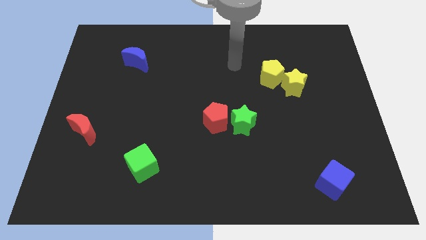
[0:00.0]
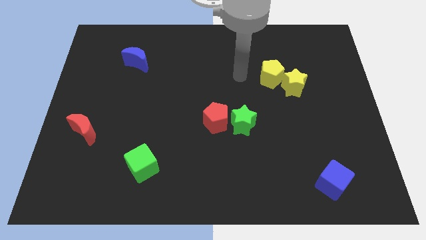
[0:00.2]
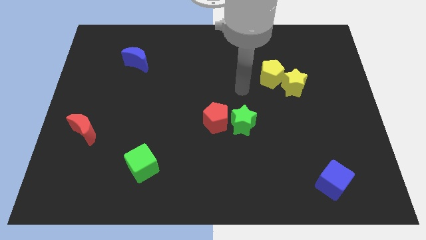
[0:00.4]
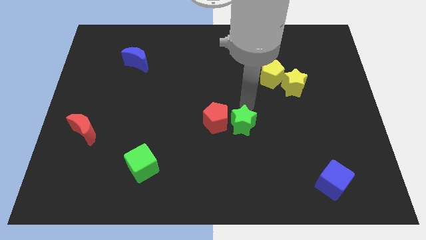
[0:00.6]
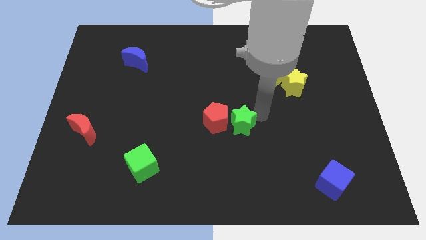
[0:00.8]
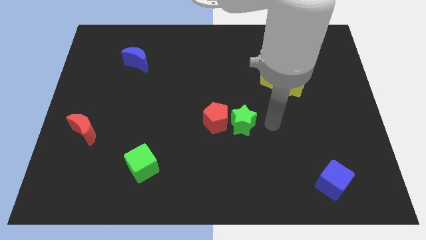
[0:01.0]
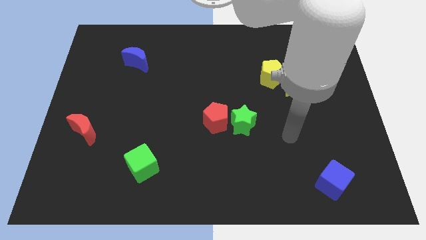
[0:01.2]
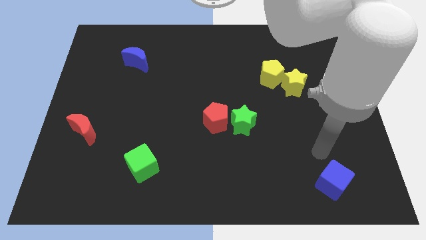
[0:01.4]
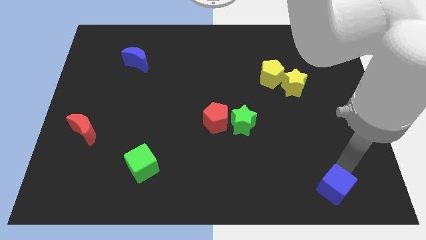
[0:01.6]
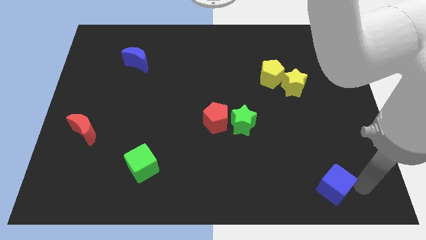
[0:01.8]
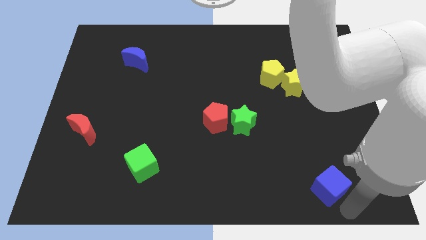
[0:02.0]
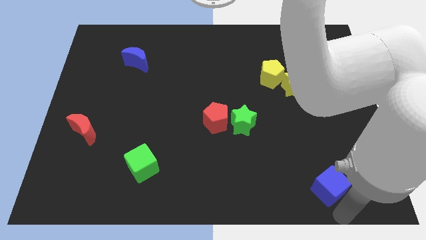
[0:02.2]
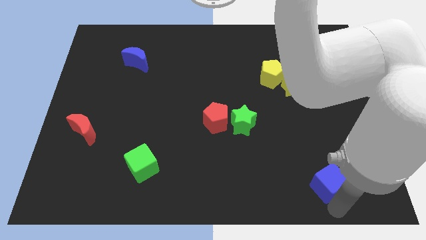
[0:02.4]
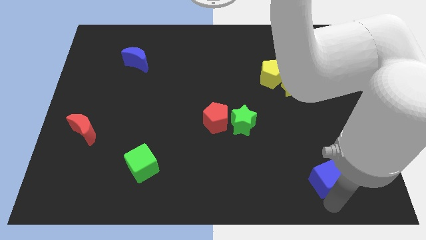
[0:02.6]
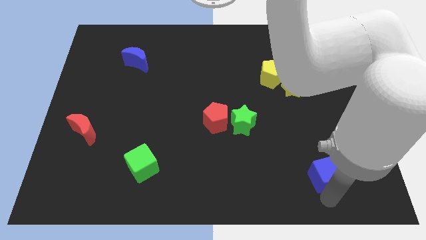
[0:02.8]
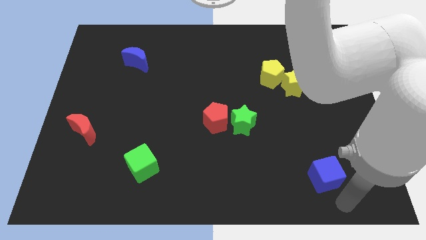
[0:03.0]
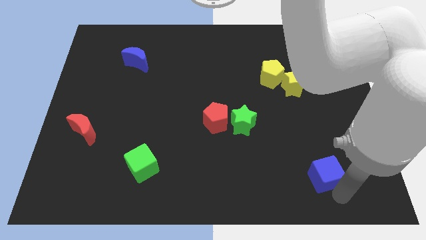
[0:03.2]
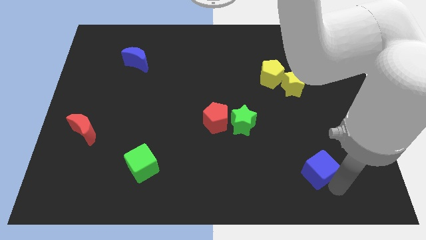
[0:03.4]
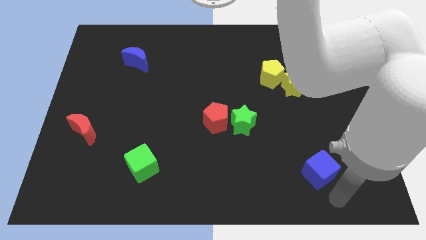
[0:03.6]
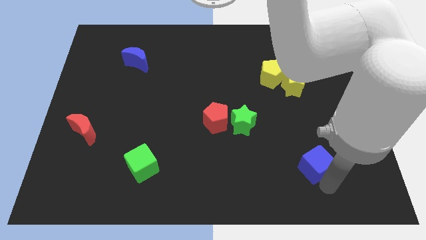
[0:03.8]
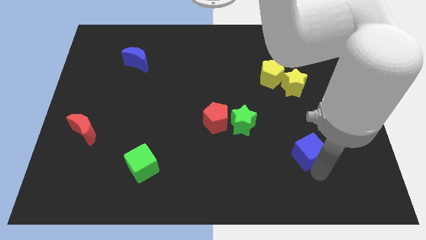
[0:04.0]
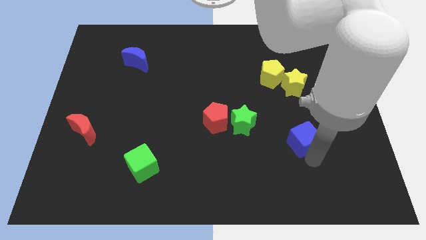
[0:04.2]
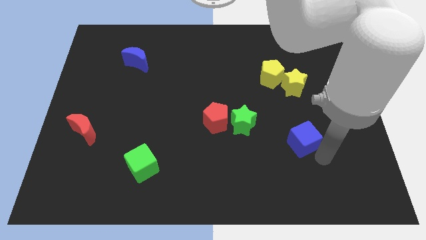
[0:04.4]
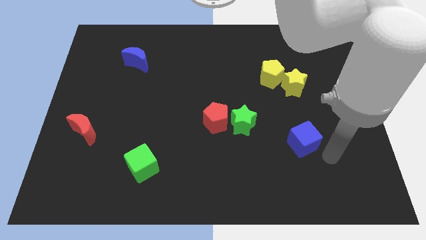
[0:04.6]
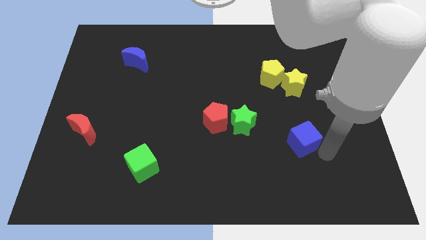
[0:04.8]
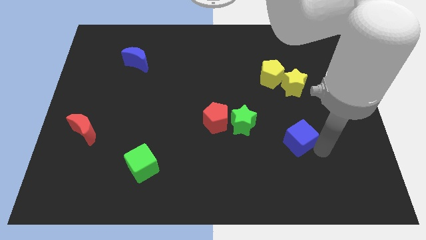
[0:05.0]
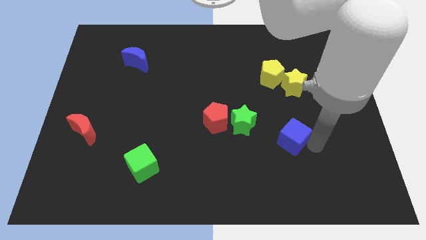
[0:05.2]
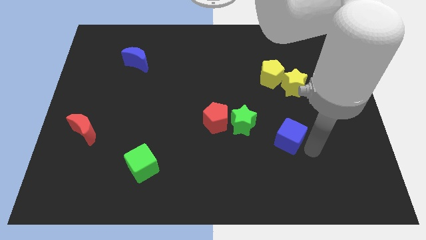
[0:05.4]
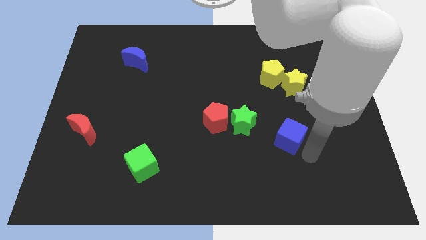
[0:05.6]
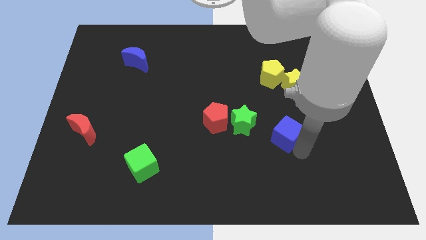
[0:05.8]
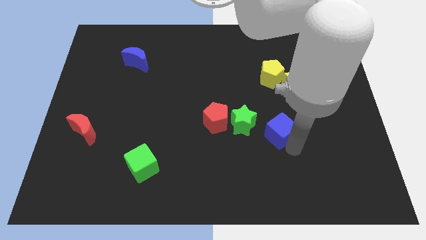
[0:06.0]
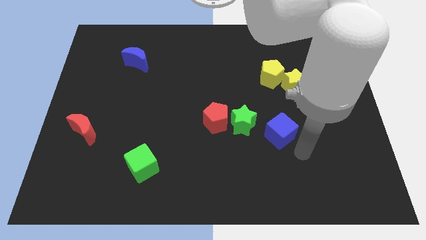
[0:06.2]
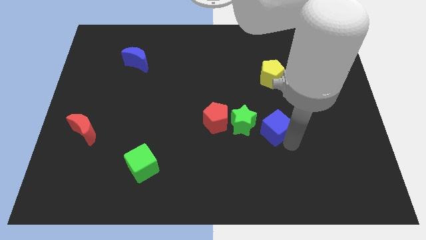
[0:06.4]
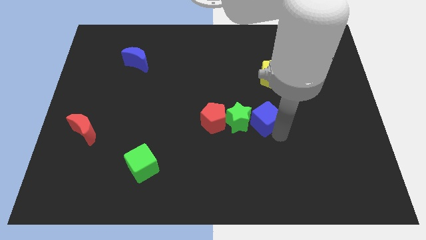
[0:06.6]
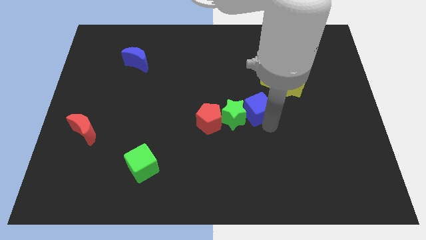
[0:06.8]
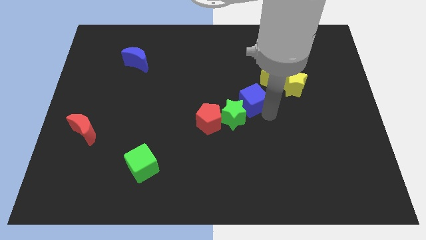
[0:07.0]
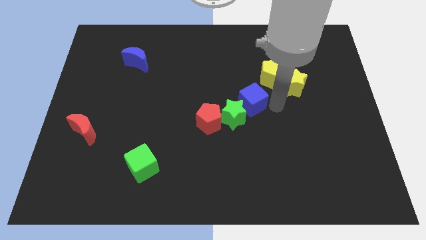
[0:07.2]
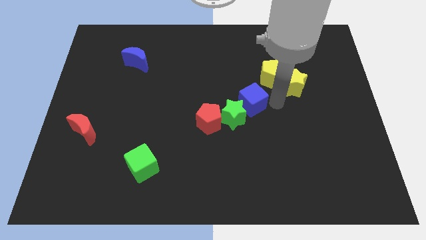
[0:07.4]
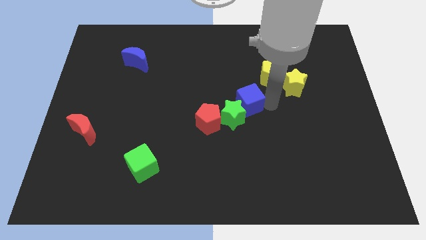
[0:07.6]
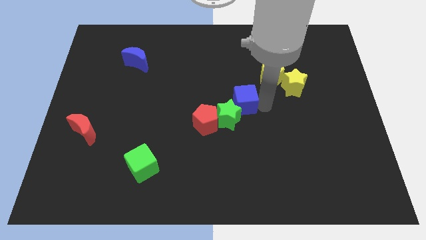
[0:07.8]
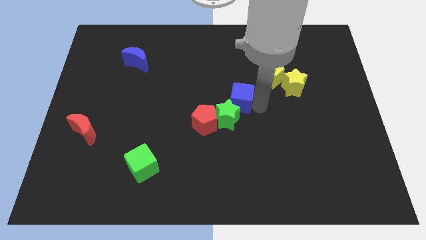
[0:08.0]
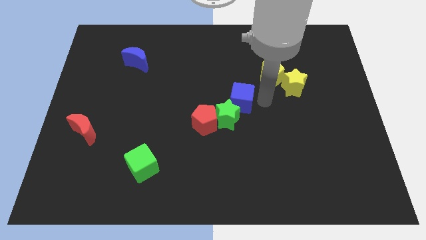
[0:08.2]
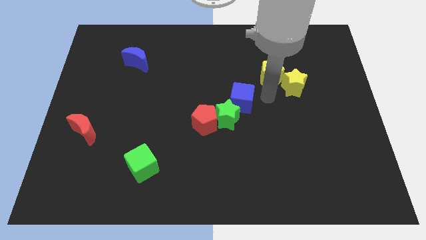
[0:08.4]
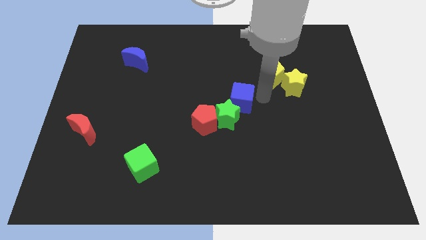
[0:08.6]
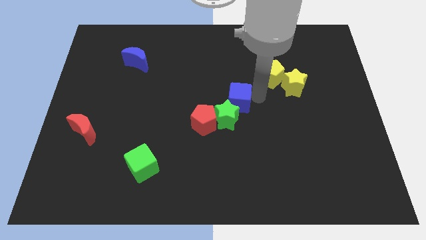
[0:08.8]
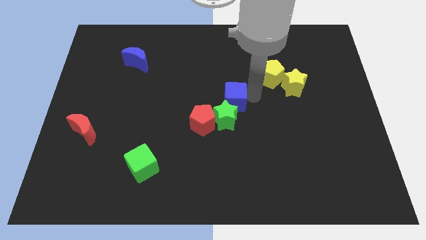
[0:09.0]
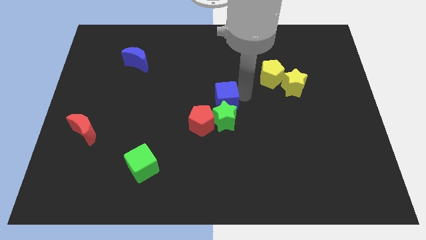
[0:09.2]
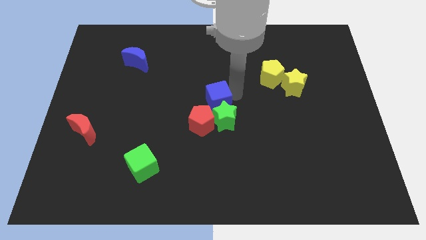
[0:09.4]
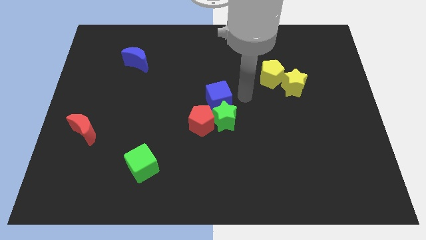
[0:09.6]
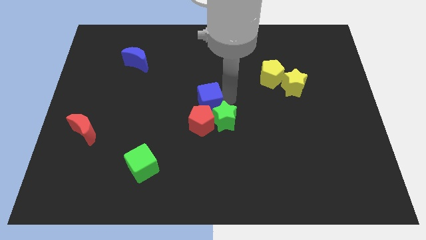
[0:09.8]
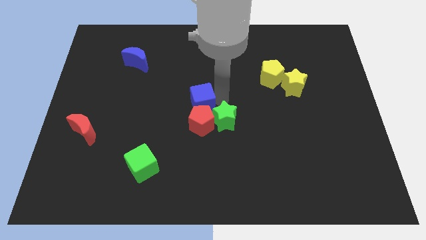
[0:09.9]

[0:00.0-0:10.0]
put the blue cube to the top left side of the red pentagon

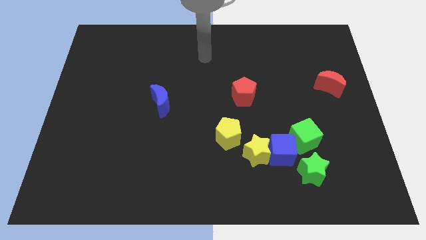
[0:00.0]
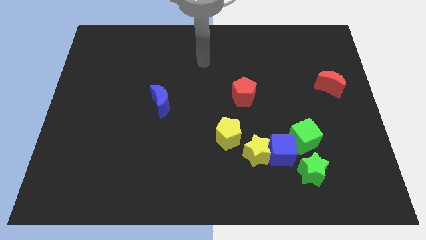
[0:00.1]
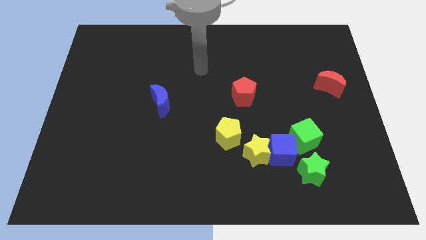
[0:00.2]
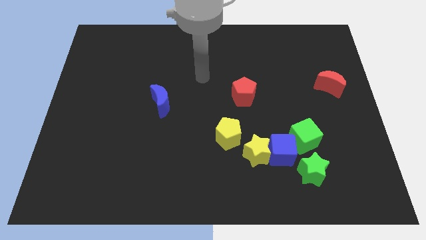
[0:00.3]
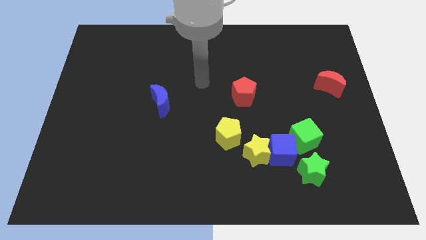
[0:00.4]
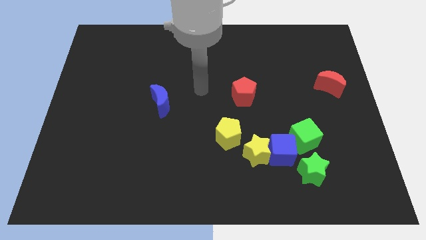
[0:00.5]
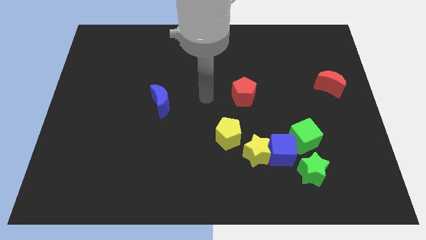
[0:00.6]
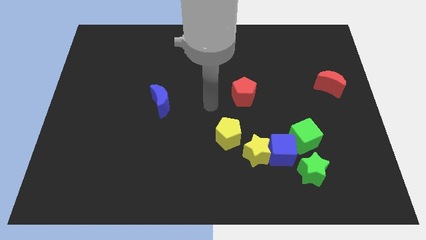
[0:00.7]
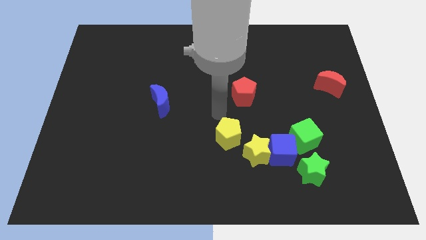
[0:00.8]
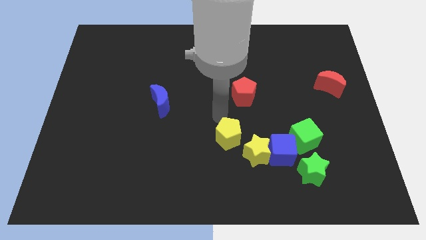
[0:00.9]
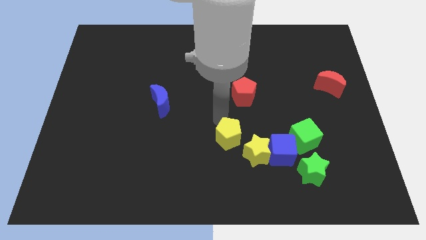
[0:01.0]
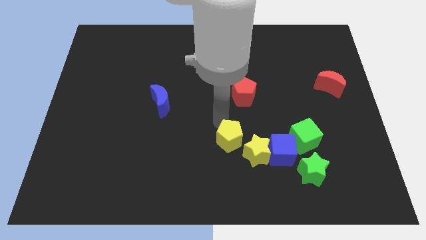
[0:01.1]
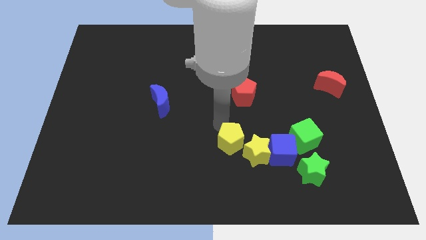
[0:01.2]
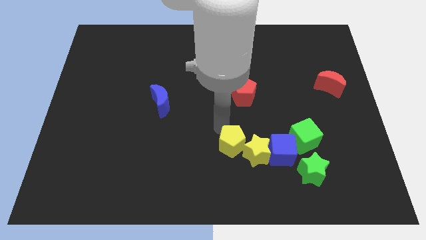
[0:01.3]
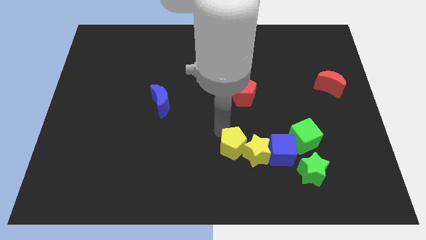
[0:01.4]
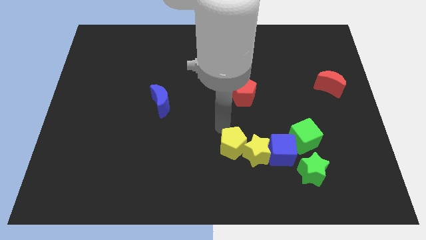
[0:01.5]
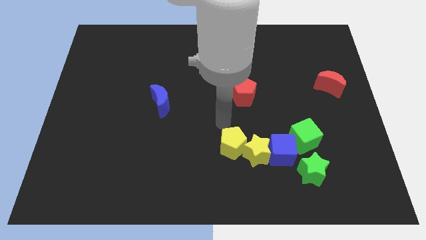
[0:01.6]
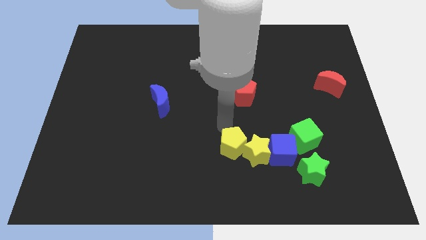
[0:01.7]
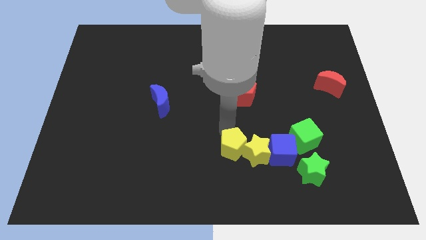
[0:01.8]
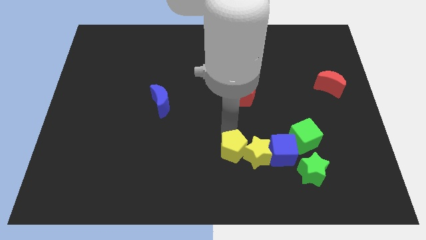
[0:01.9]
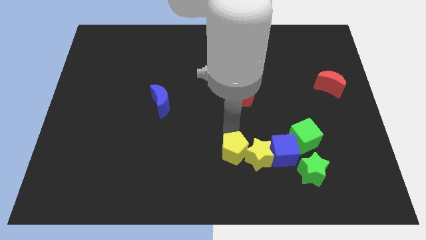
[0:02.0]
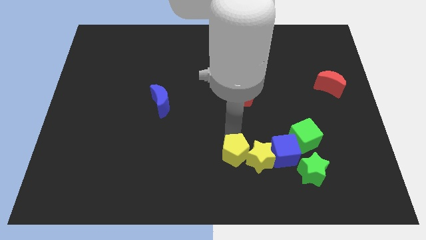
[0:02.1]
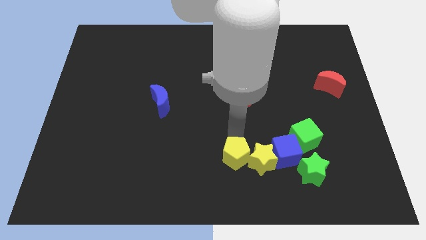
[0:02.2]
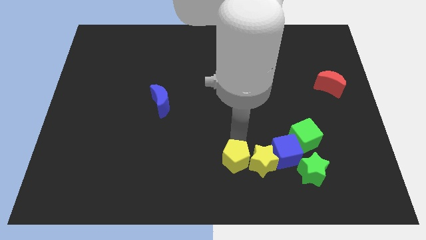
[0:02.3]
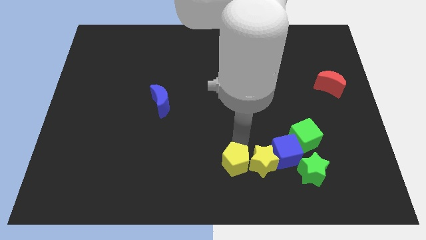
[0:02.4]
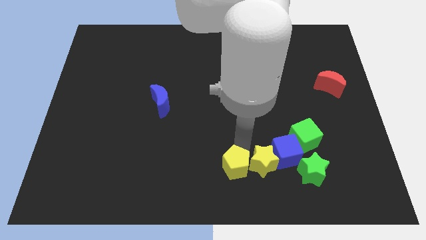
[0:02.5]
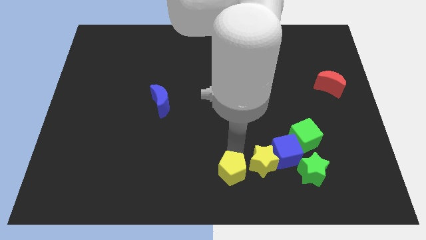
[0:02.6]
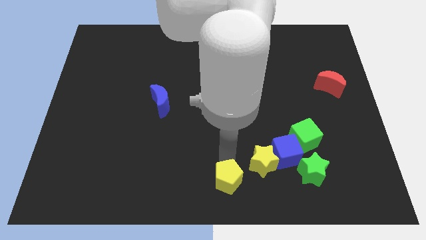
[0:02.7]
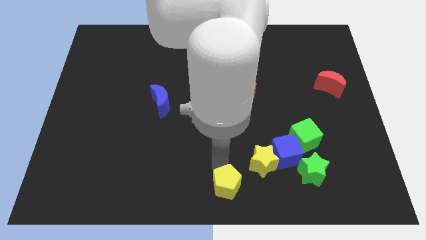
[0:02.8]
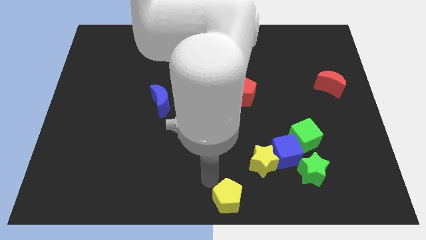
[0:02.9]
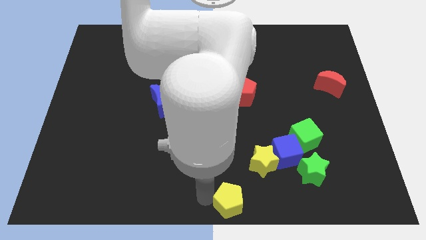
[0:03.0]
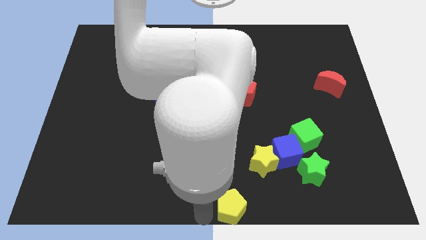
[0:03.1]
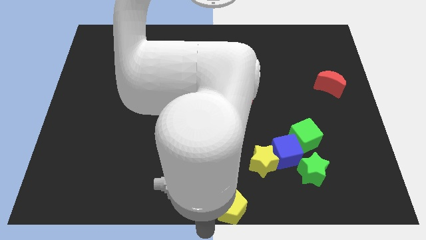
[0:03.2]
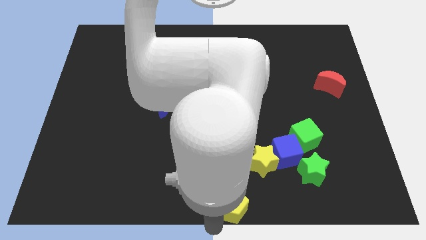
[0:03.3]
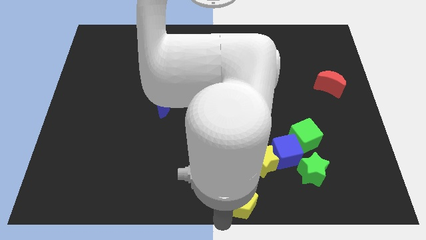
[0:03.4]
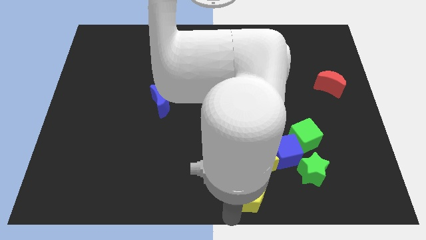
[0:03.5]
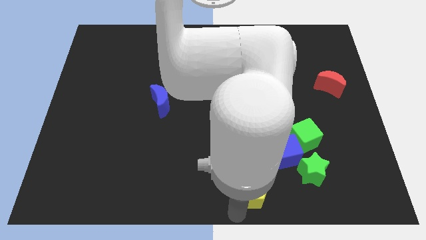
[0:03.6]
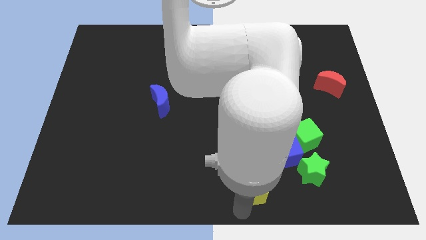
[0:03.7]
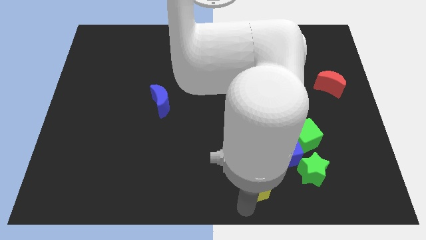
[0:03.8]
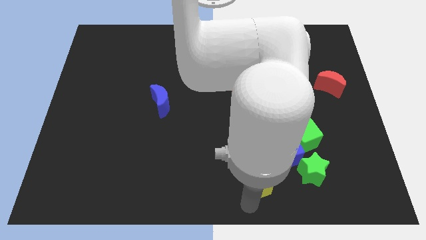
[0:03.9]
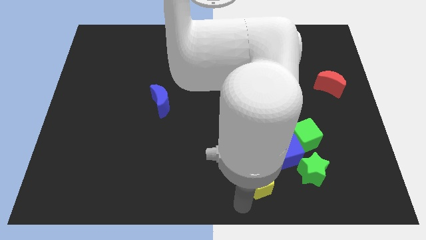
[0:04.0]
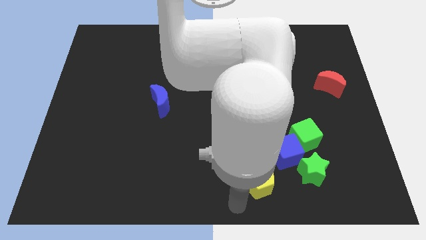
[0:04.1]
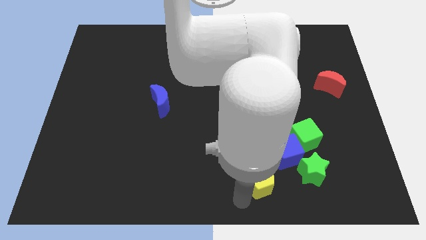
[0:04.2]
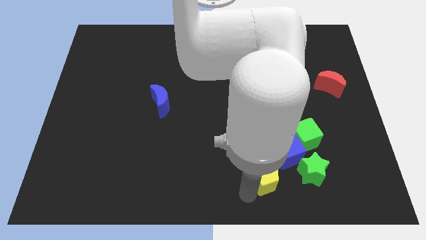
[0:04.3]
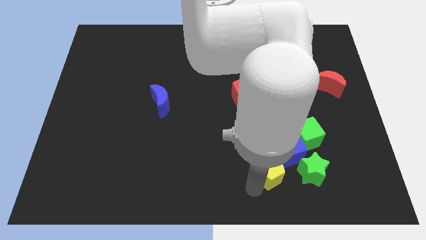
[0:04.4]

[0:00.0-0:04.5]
put the yellow pentagon to the bottom left of the green cube
